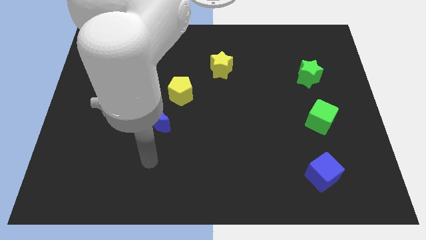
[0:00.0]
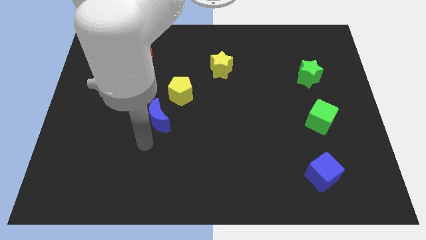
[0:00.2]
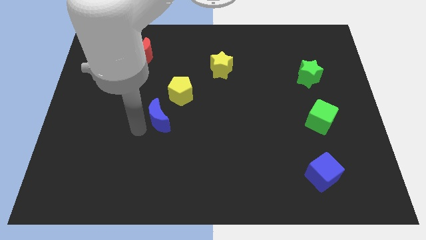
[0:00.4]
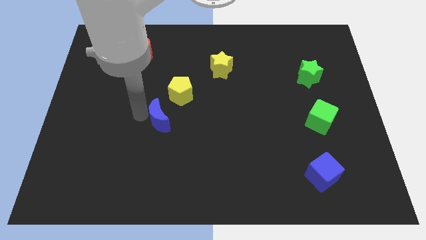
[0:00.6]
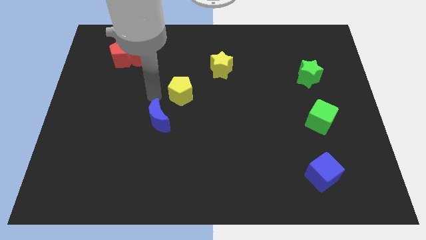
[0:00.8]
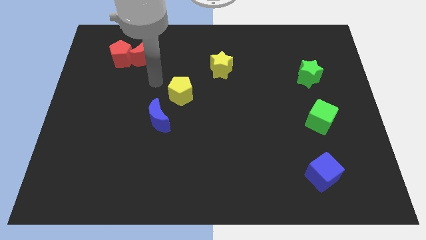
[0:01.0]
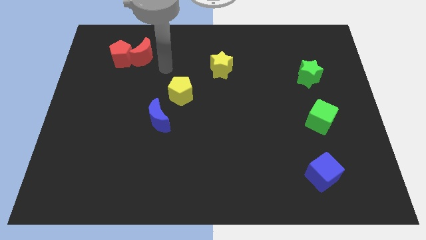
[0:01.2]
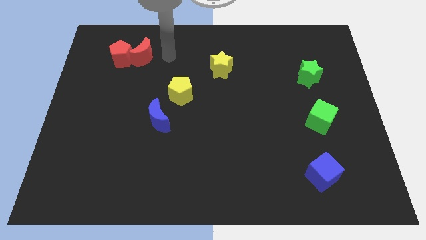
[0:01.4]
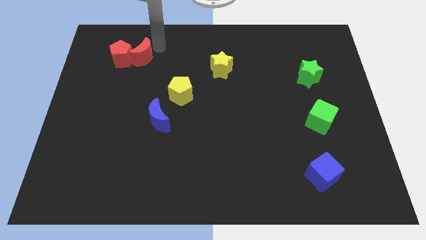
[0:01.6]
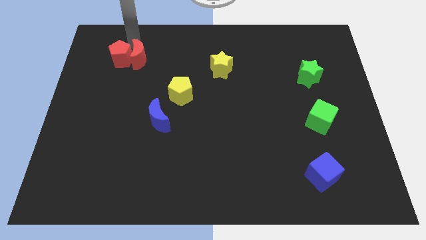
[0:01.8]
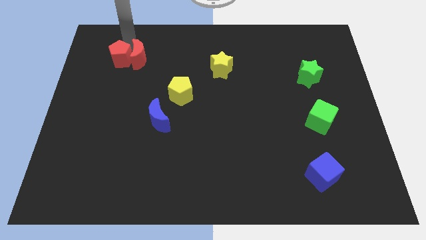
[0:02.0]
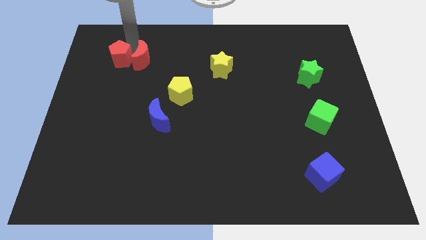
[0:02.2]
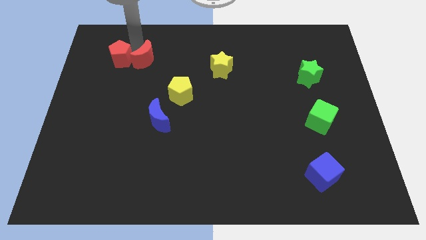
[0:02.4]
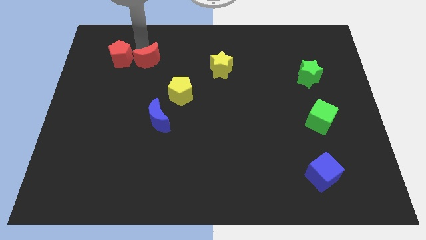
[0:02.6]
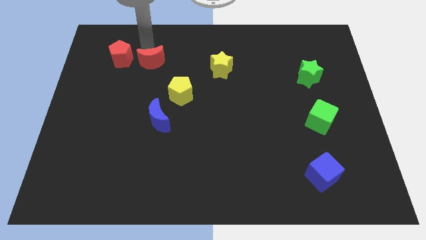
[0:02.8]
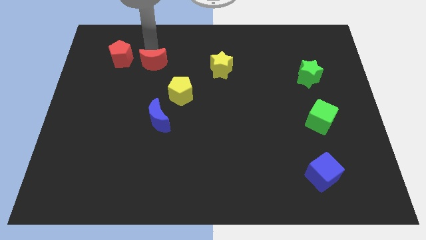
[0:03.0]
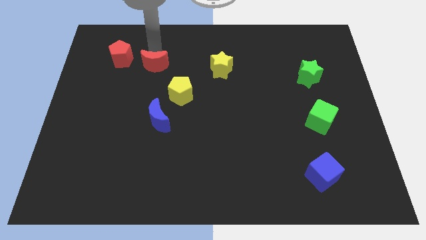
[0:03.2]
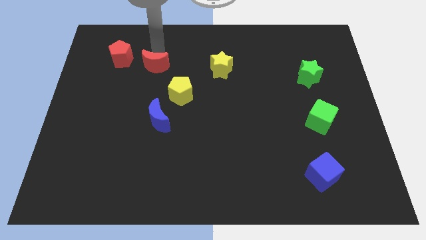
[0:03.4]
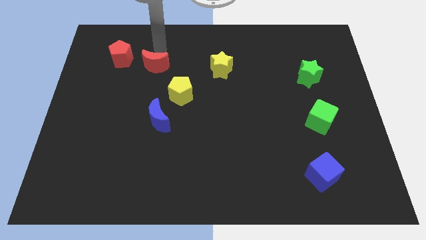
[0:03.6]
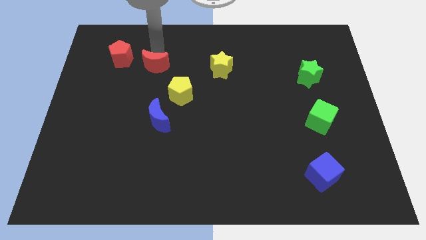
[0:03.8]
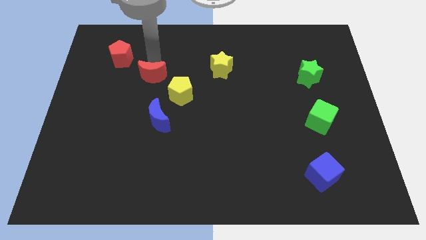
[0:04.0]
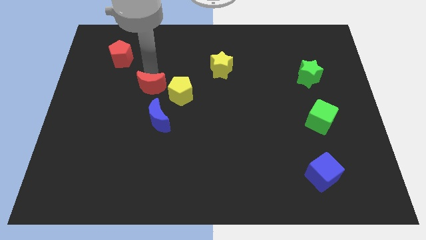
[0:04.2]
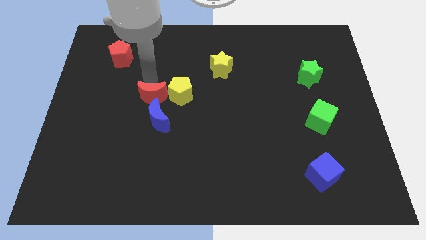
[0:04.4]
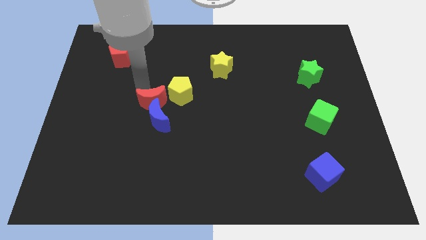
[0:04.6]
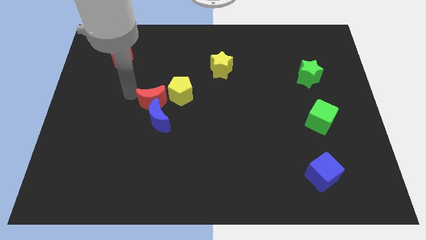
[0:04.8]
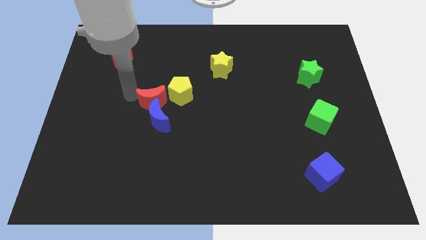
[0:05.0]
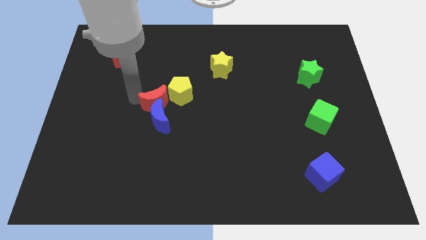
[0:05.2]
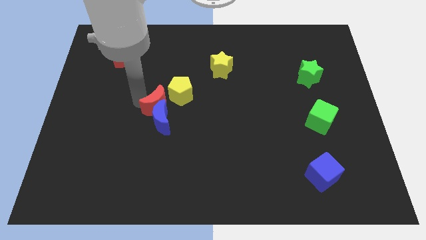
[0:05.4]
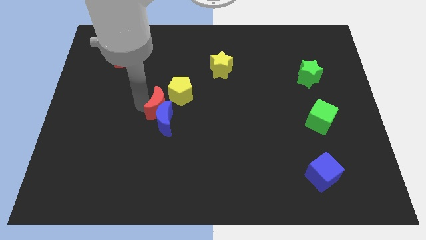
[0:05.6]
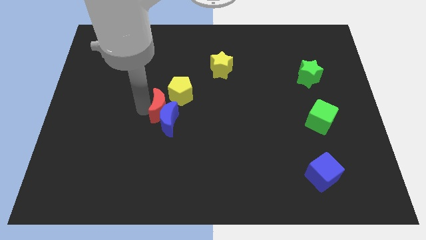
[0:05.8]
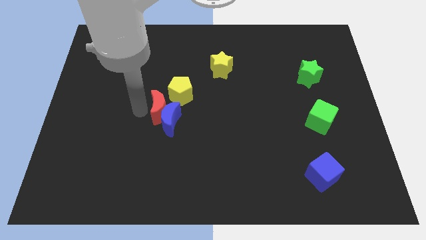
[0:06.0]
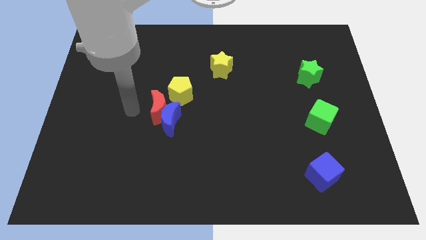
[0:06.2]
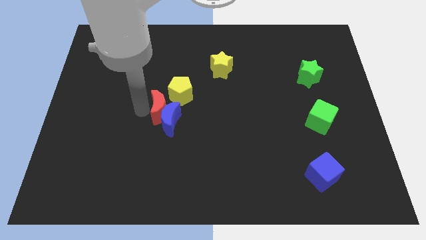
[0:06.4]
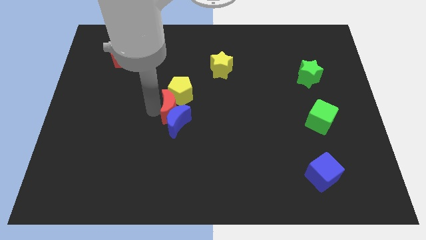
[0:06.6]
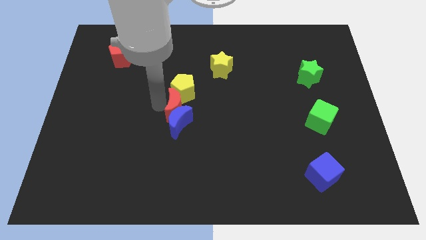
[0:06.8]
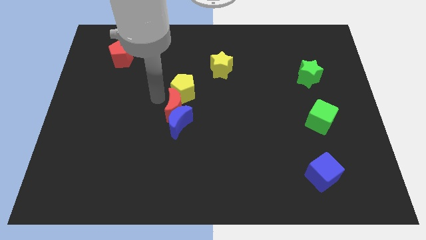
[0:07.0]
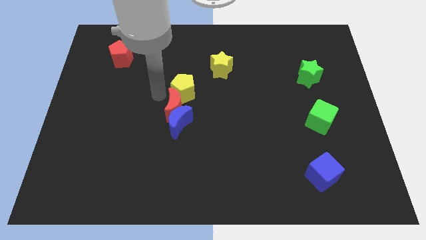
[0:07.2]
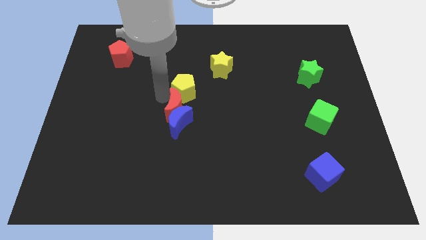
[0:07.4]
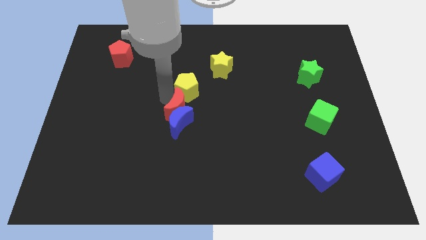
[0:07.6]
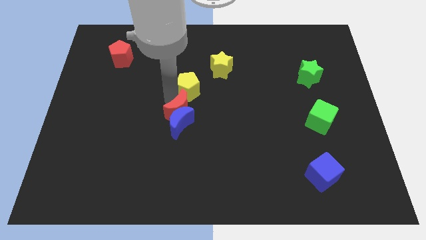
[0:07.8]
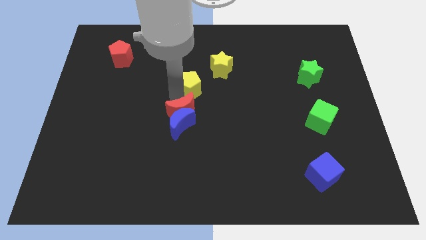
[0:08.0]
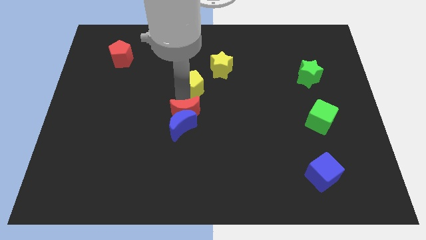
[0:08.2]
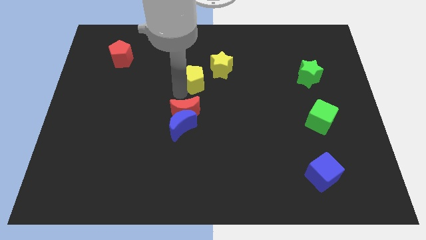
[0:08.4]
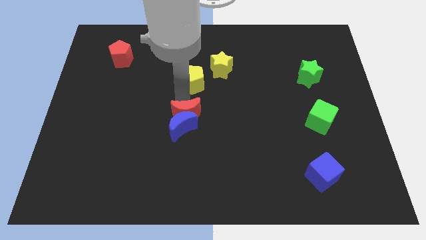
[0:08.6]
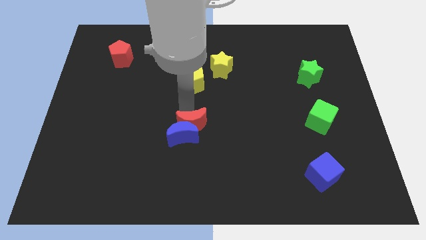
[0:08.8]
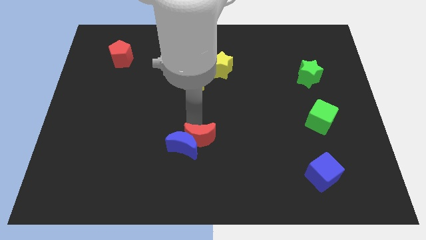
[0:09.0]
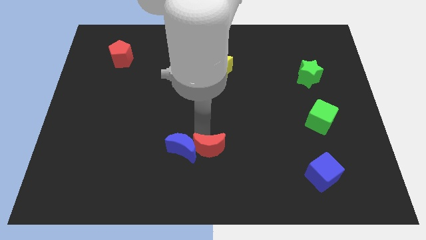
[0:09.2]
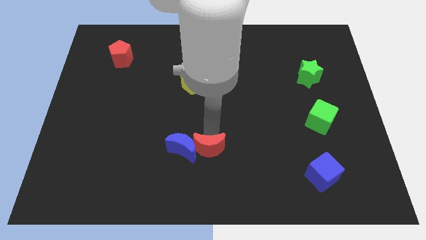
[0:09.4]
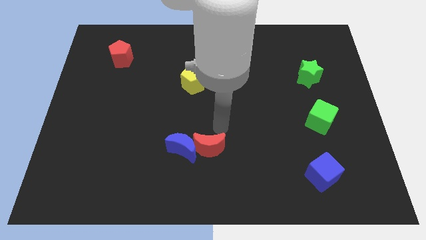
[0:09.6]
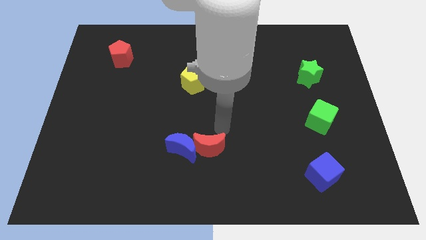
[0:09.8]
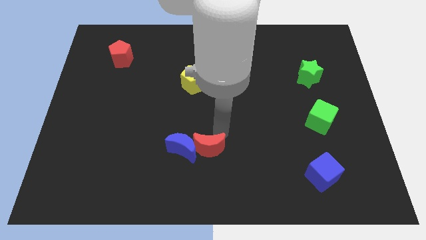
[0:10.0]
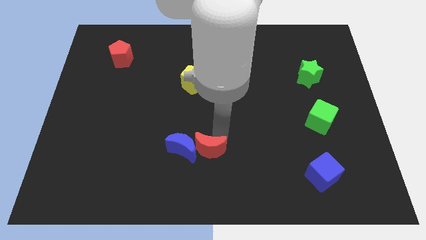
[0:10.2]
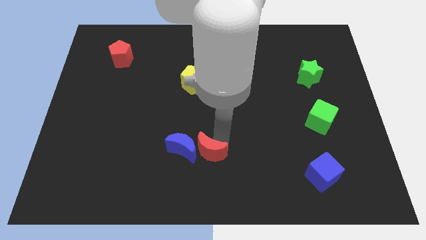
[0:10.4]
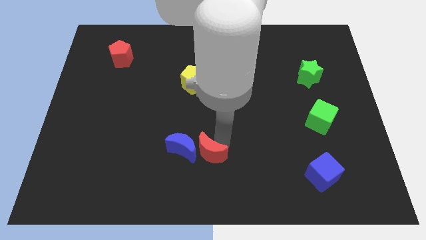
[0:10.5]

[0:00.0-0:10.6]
move the red moon to the bottom

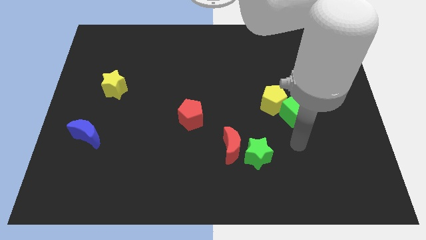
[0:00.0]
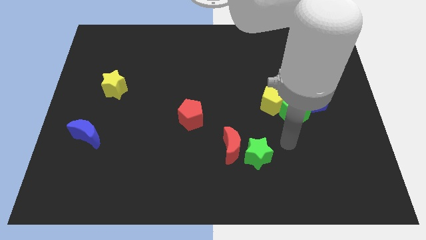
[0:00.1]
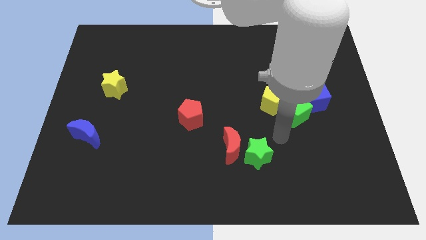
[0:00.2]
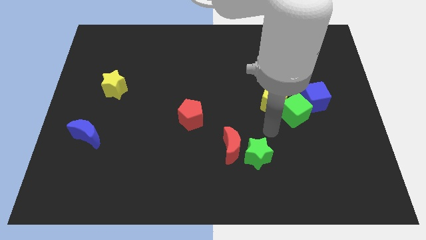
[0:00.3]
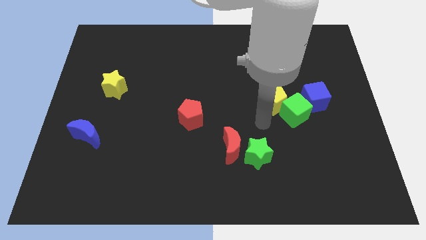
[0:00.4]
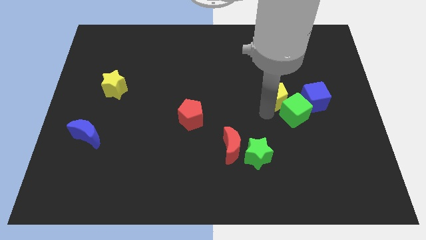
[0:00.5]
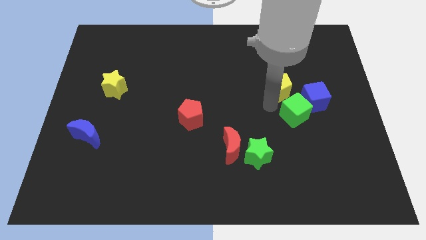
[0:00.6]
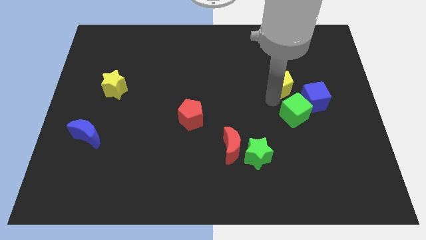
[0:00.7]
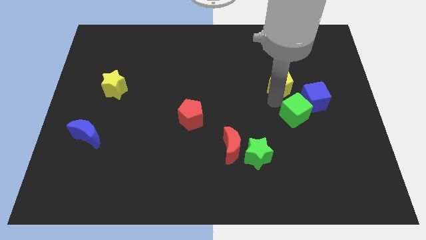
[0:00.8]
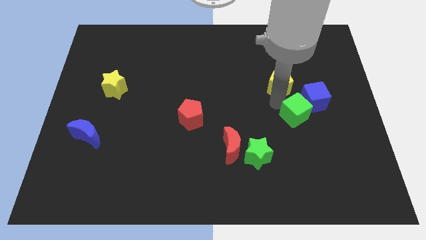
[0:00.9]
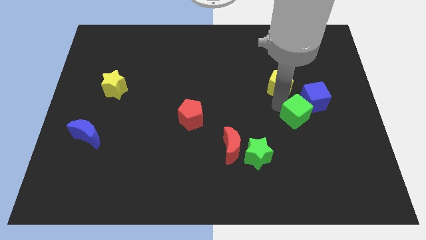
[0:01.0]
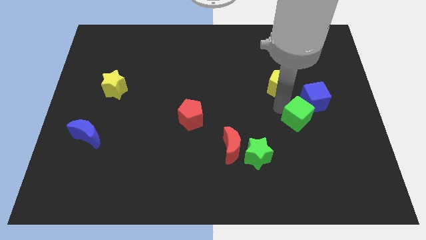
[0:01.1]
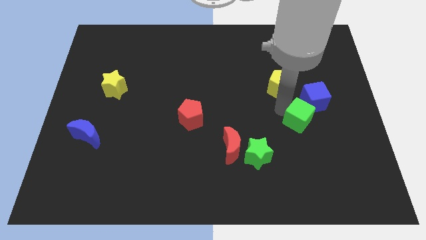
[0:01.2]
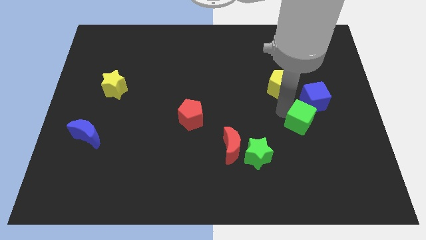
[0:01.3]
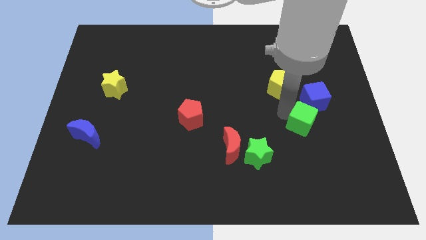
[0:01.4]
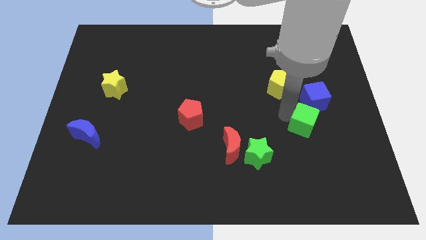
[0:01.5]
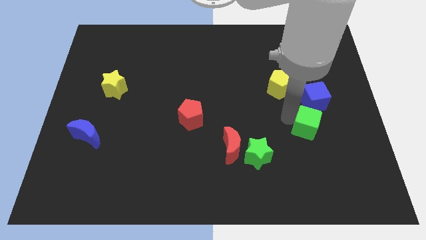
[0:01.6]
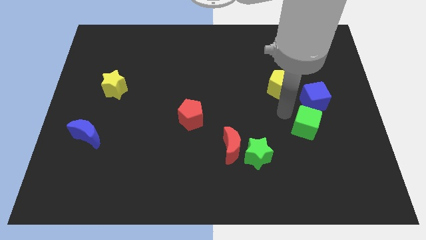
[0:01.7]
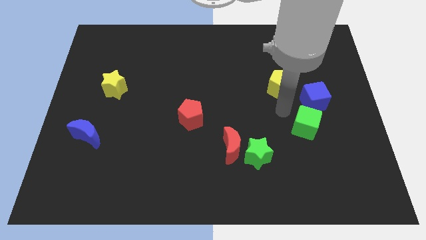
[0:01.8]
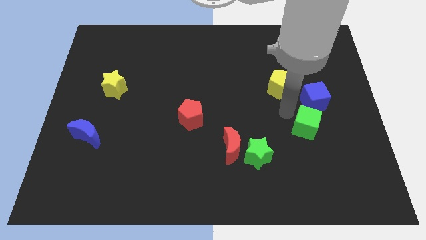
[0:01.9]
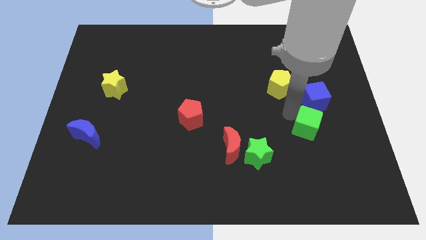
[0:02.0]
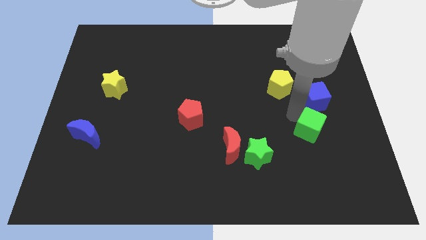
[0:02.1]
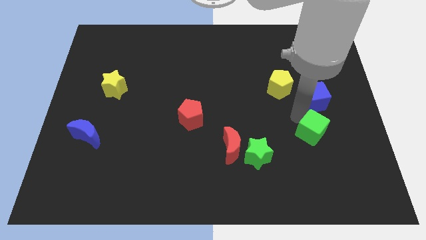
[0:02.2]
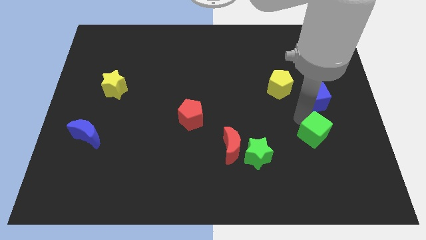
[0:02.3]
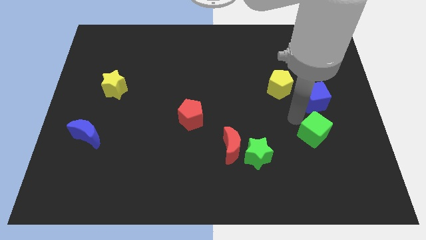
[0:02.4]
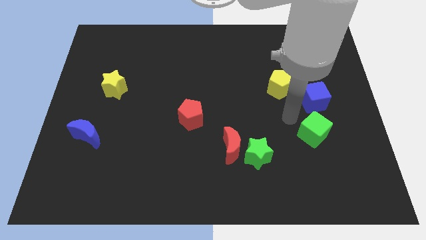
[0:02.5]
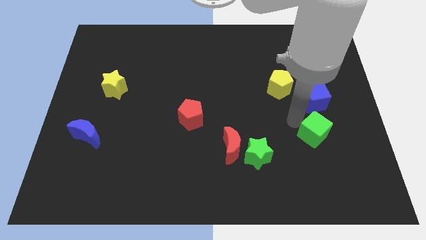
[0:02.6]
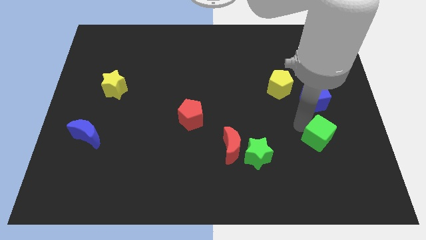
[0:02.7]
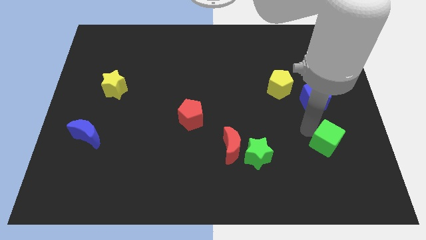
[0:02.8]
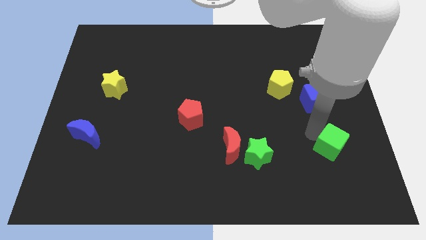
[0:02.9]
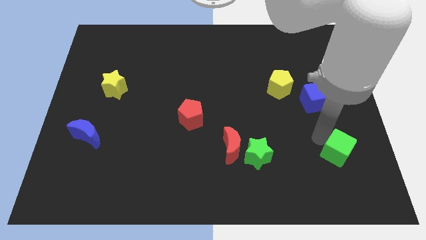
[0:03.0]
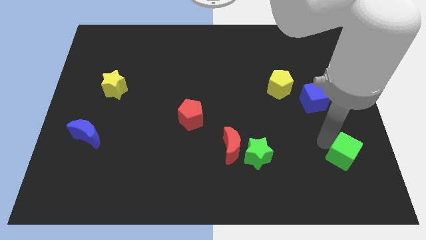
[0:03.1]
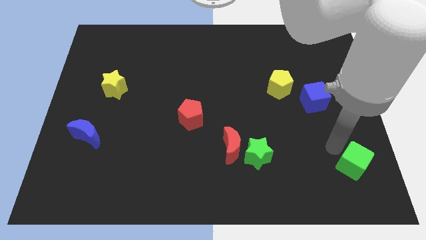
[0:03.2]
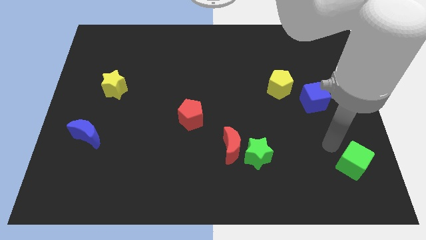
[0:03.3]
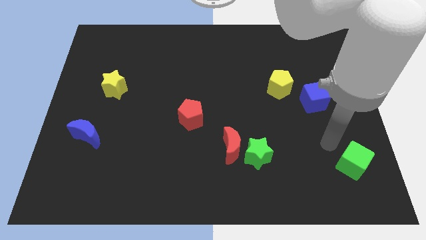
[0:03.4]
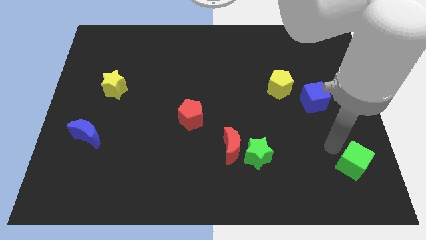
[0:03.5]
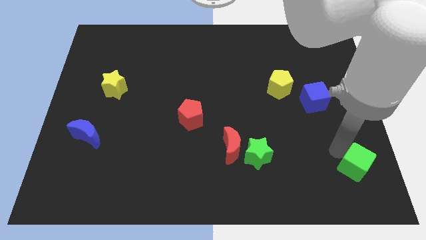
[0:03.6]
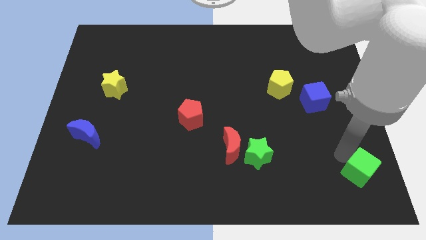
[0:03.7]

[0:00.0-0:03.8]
push the green cube to the bottom right corner
